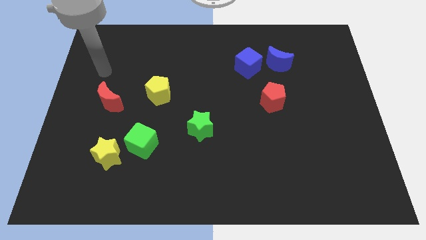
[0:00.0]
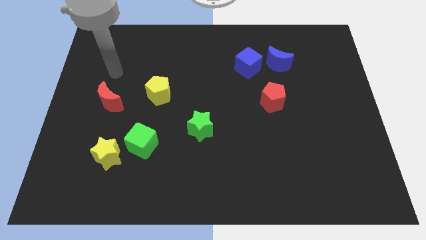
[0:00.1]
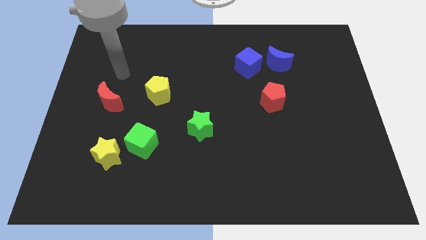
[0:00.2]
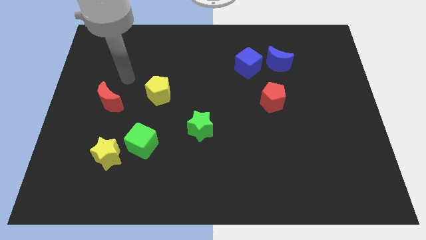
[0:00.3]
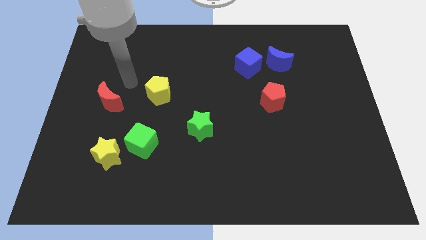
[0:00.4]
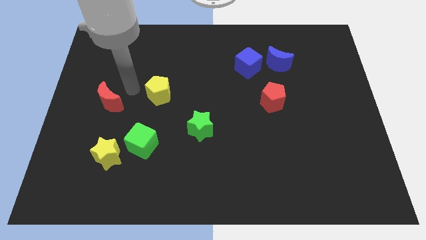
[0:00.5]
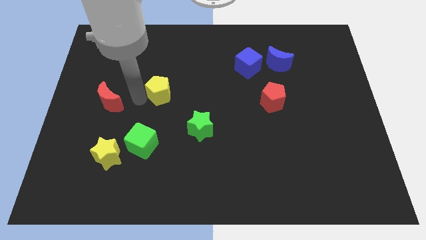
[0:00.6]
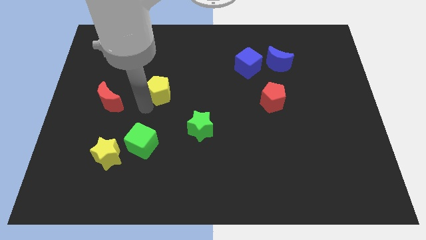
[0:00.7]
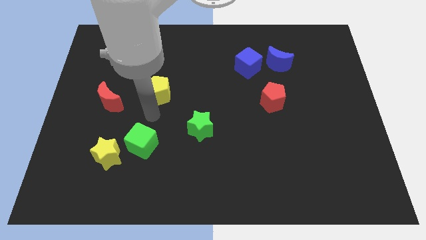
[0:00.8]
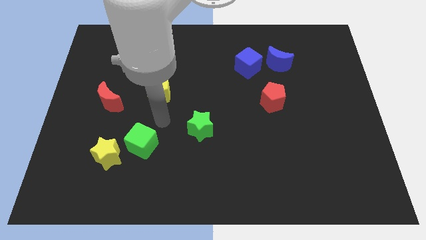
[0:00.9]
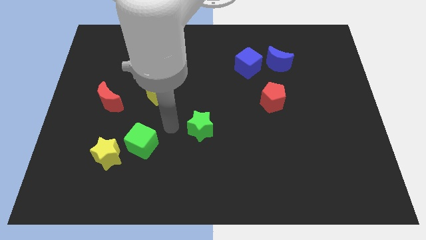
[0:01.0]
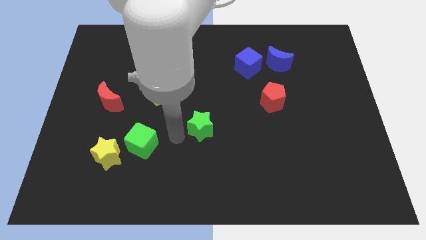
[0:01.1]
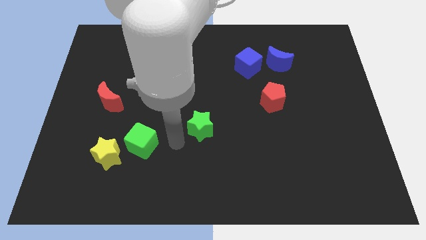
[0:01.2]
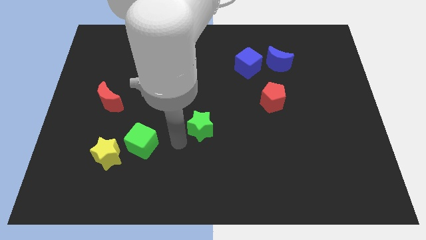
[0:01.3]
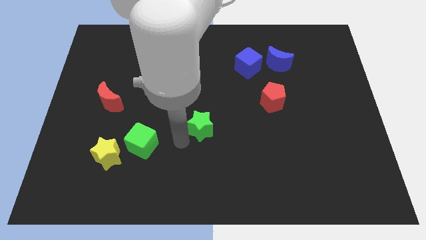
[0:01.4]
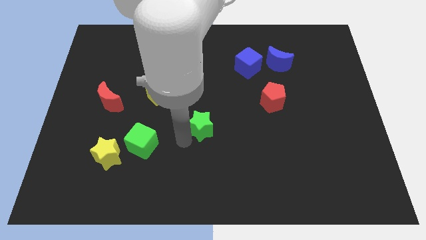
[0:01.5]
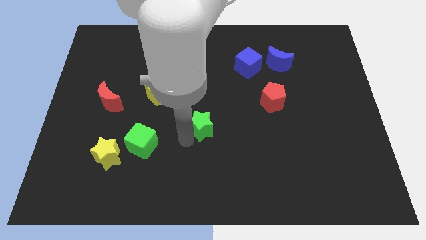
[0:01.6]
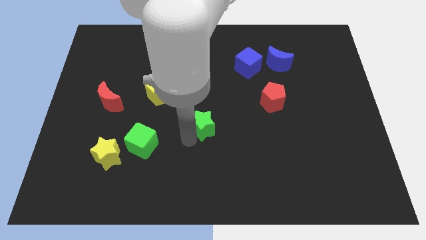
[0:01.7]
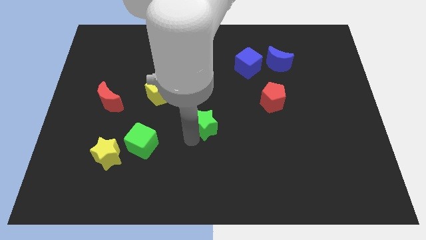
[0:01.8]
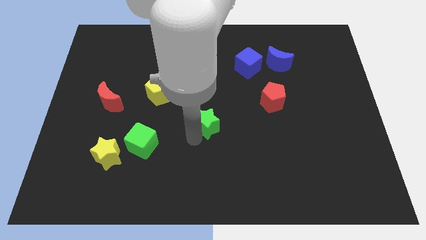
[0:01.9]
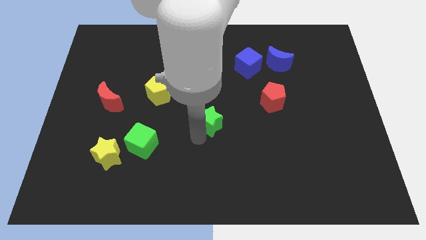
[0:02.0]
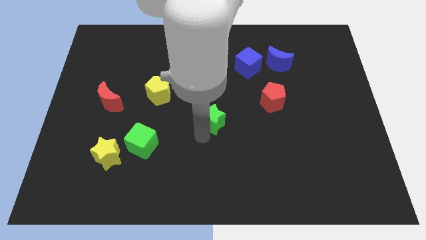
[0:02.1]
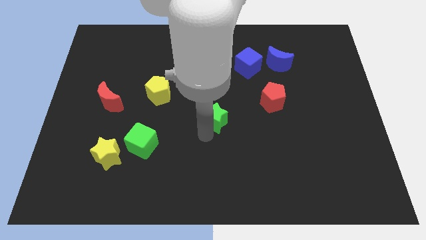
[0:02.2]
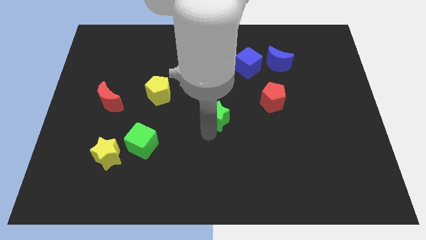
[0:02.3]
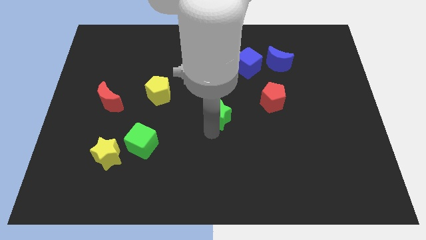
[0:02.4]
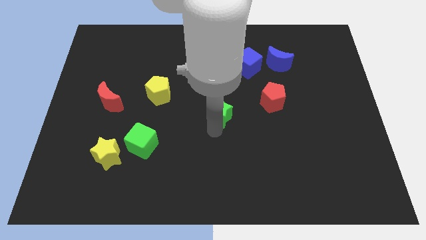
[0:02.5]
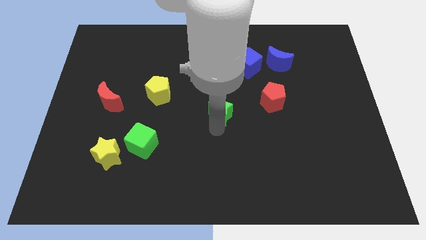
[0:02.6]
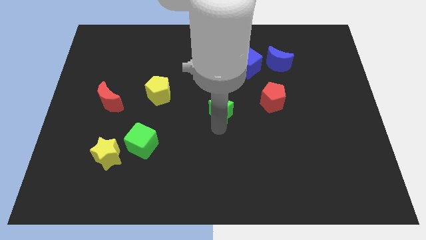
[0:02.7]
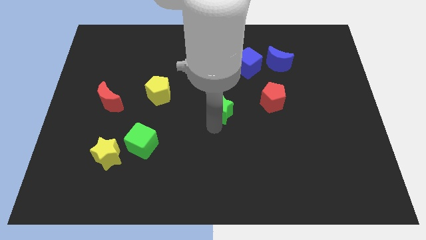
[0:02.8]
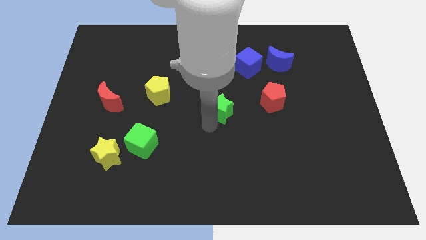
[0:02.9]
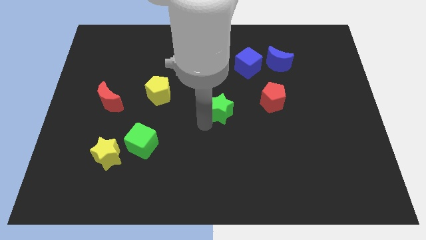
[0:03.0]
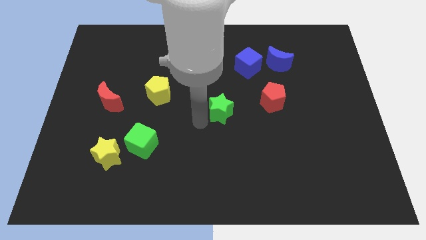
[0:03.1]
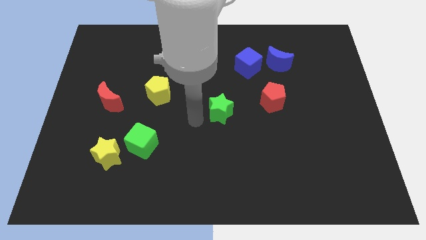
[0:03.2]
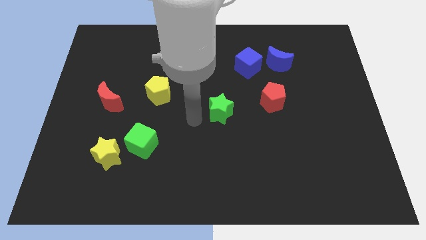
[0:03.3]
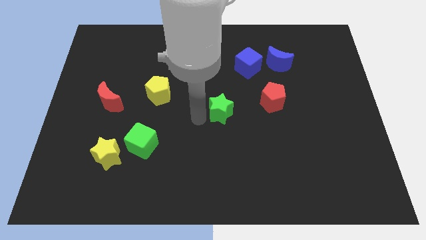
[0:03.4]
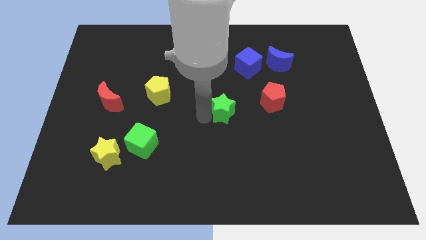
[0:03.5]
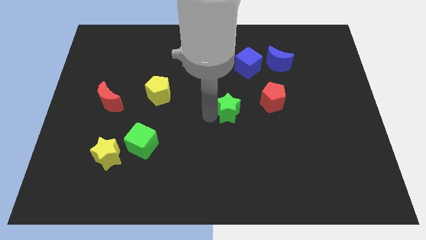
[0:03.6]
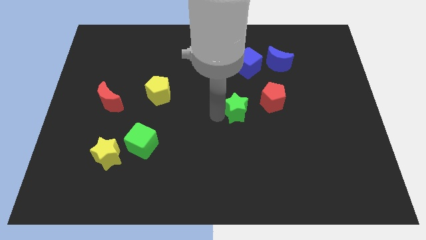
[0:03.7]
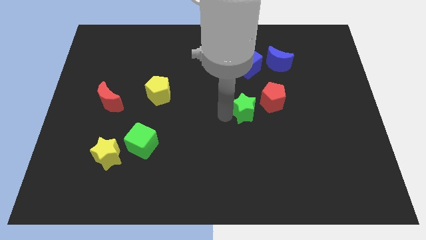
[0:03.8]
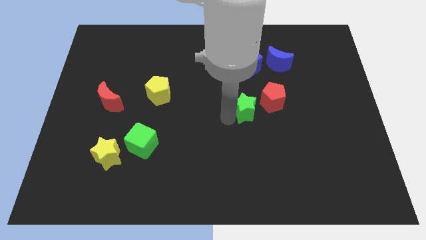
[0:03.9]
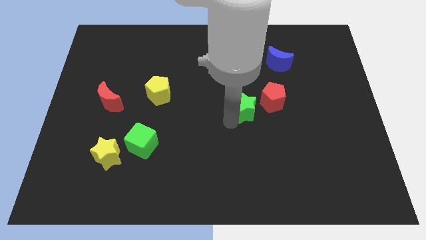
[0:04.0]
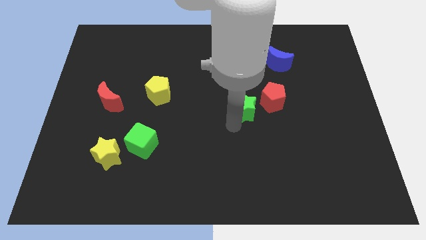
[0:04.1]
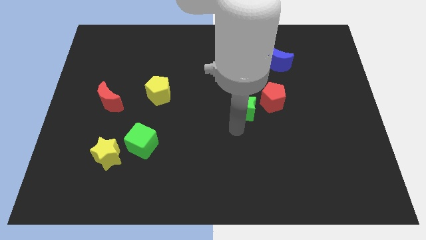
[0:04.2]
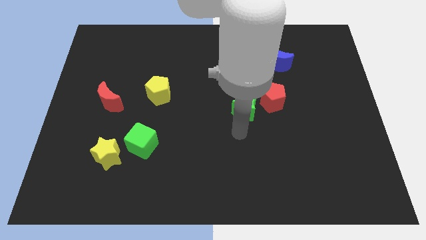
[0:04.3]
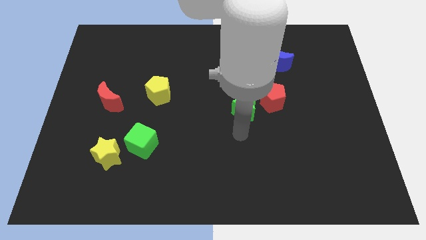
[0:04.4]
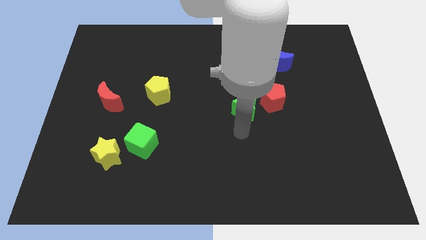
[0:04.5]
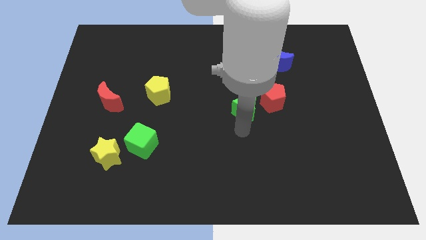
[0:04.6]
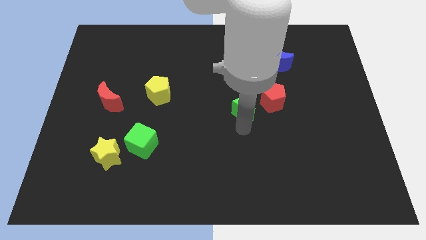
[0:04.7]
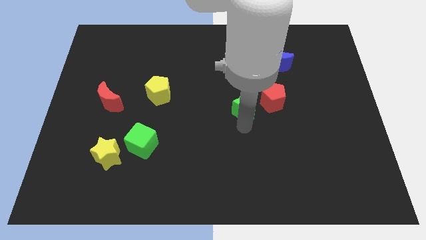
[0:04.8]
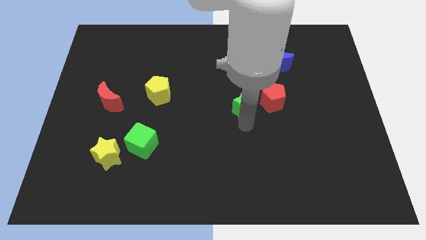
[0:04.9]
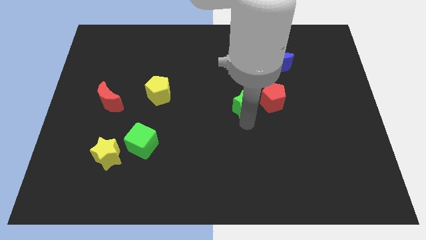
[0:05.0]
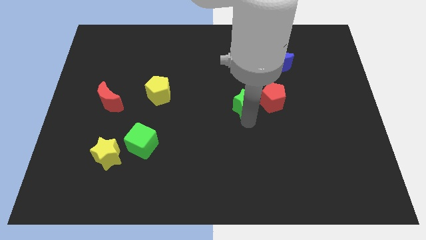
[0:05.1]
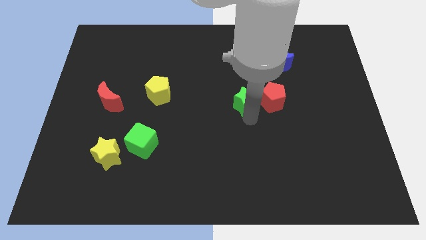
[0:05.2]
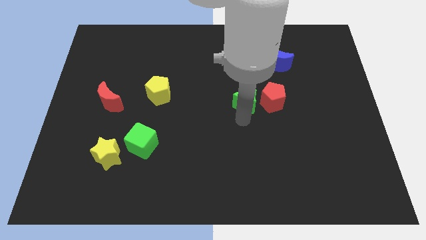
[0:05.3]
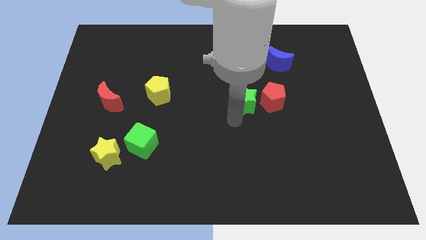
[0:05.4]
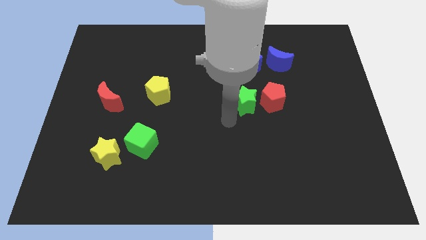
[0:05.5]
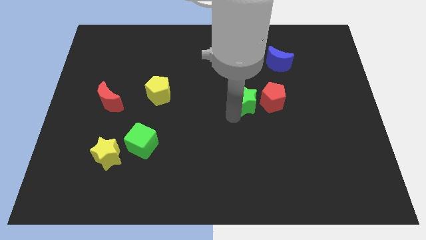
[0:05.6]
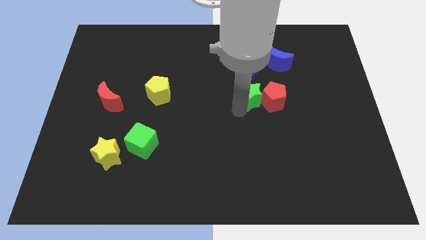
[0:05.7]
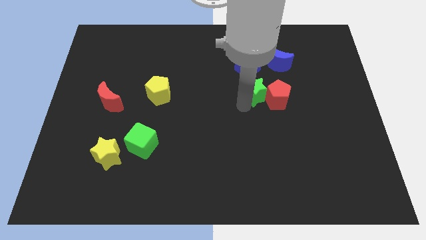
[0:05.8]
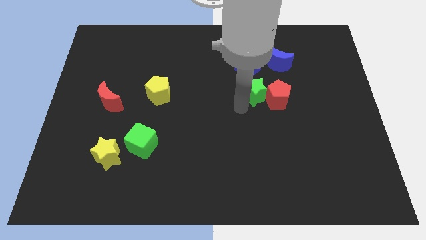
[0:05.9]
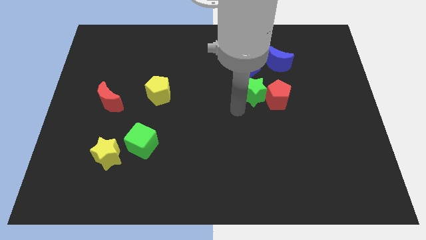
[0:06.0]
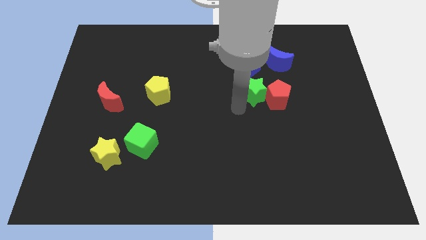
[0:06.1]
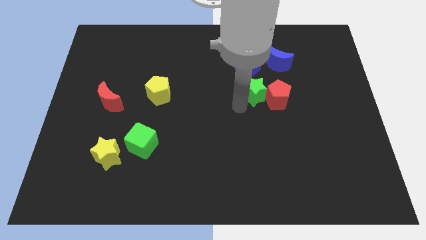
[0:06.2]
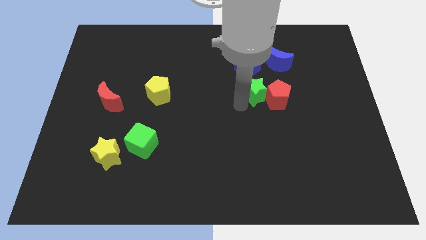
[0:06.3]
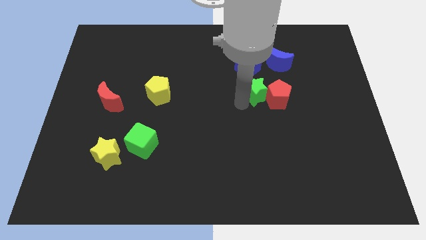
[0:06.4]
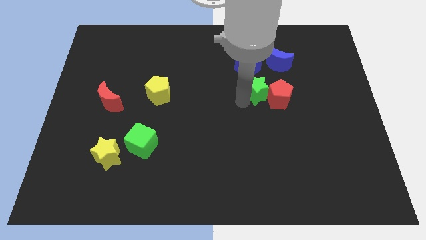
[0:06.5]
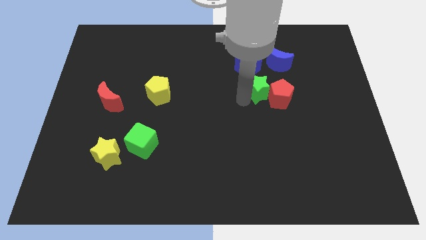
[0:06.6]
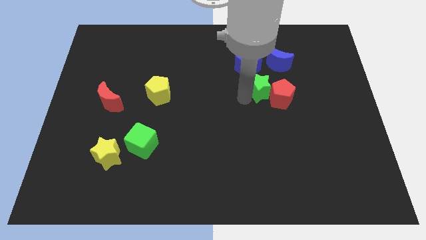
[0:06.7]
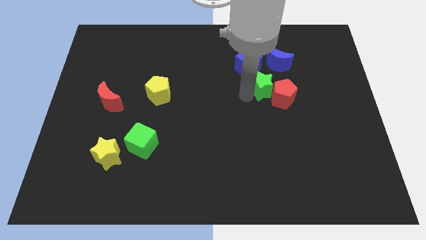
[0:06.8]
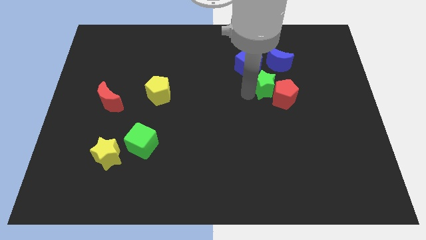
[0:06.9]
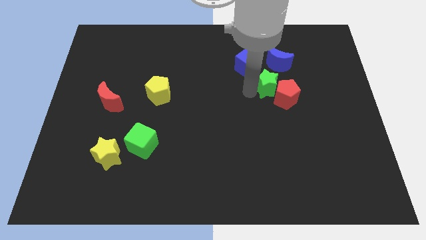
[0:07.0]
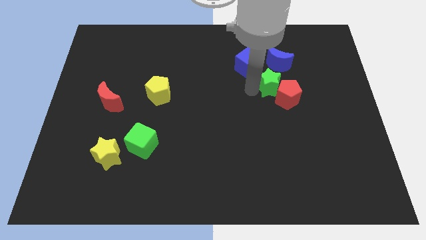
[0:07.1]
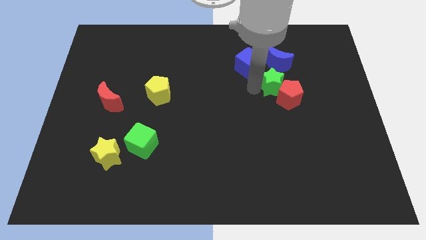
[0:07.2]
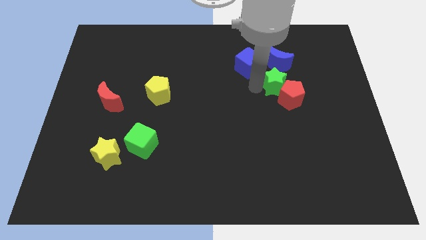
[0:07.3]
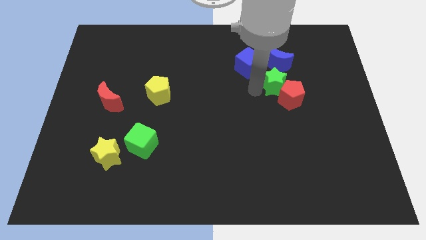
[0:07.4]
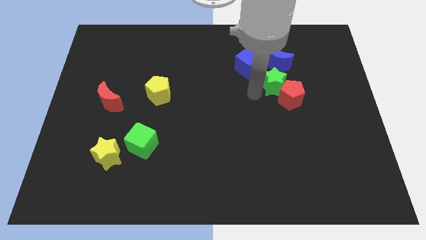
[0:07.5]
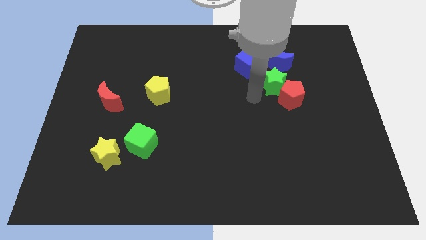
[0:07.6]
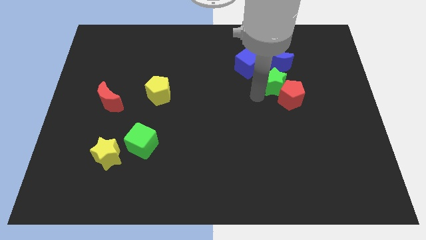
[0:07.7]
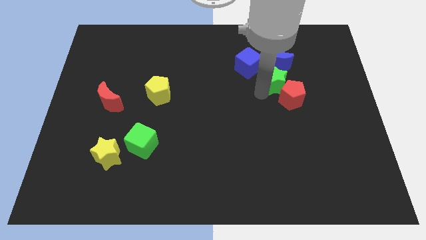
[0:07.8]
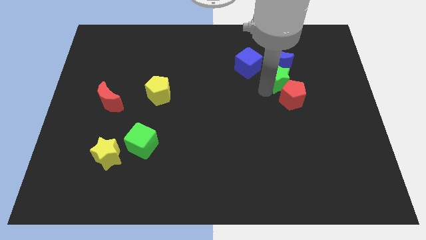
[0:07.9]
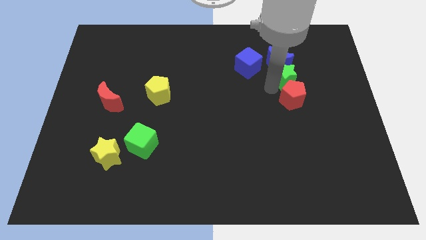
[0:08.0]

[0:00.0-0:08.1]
slide the green star to the right side of the blue cube

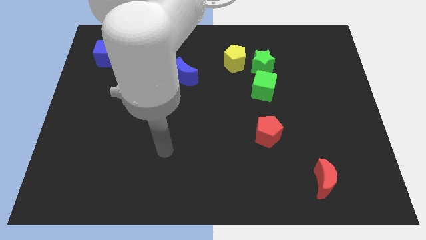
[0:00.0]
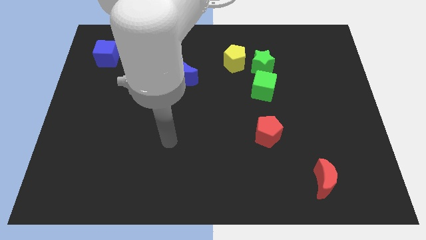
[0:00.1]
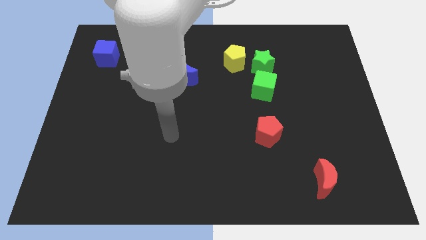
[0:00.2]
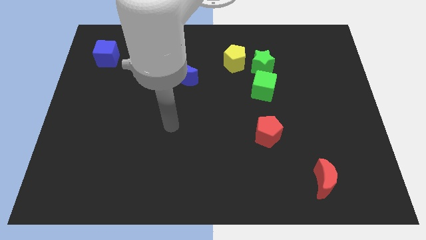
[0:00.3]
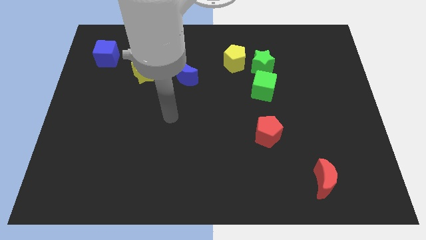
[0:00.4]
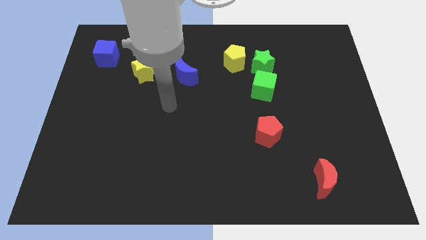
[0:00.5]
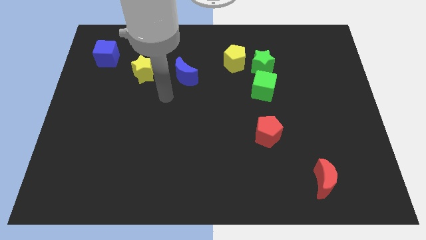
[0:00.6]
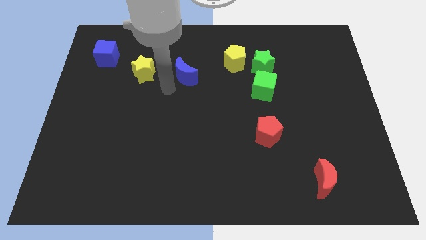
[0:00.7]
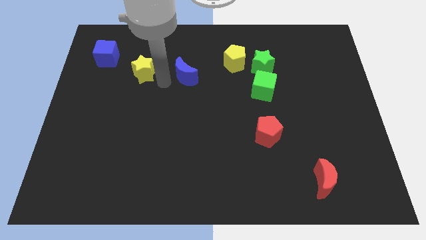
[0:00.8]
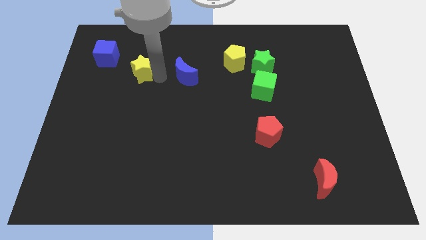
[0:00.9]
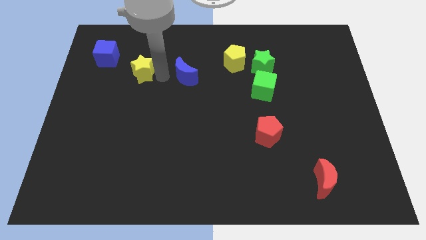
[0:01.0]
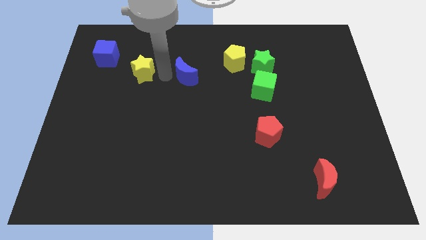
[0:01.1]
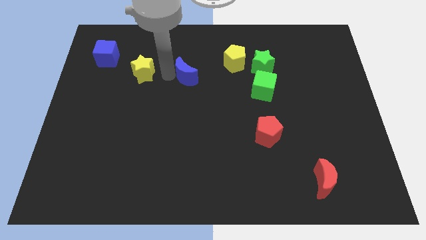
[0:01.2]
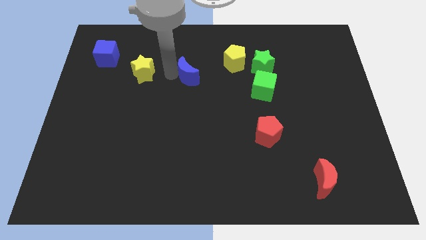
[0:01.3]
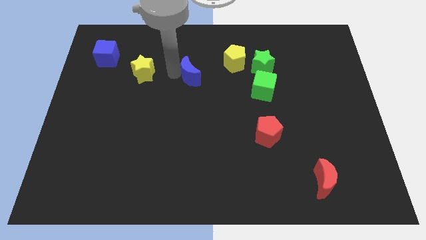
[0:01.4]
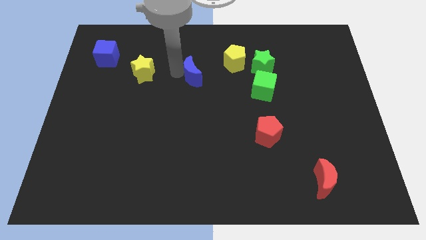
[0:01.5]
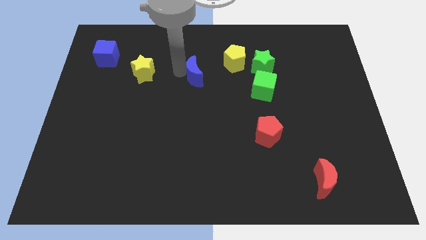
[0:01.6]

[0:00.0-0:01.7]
put the blue moon to the bottom left of the yellow pentagon
